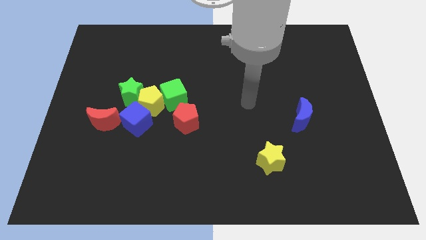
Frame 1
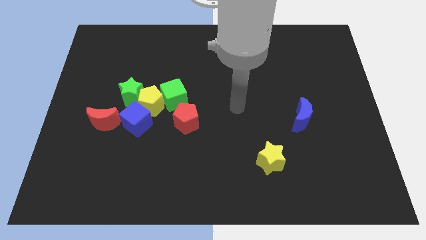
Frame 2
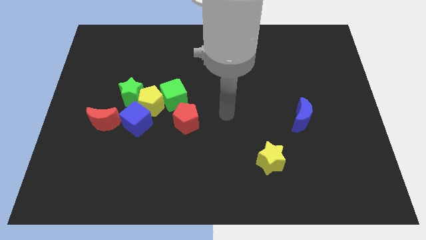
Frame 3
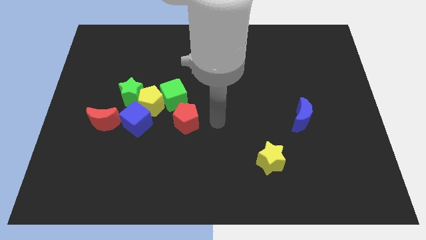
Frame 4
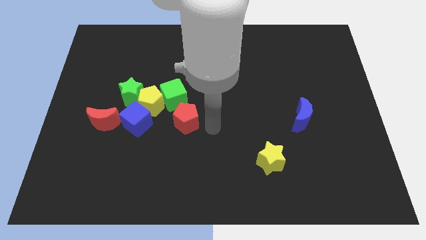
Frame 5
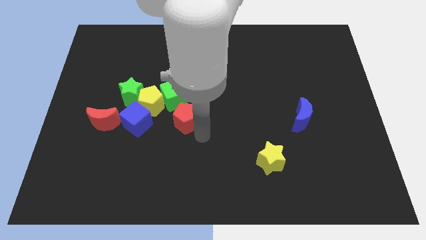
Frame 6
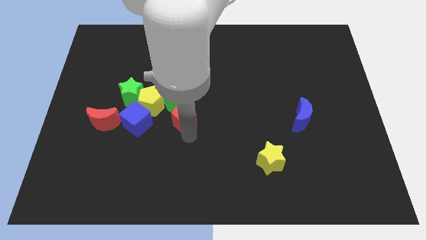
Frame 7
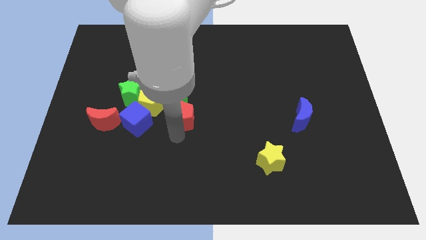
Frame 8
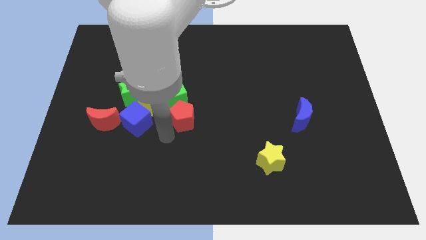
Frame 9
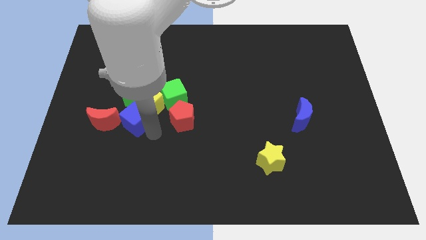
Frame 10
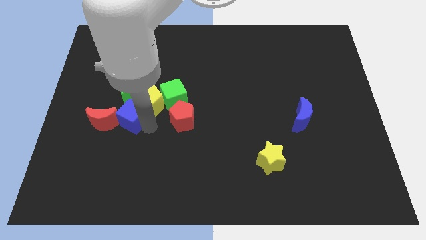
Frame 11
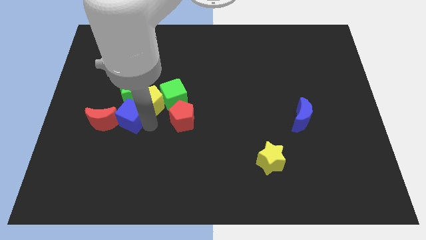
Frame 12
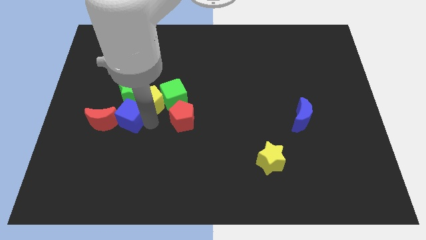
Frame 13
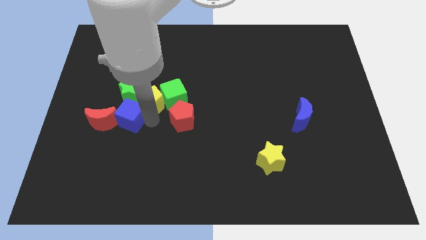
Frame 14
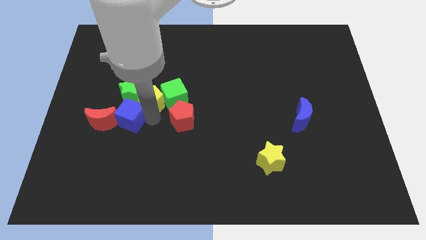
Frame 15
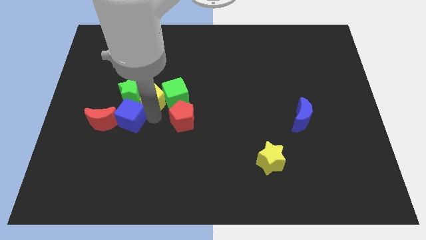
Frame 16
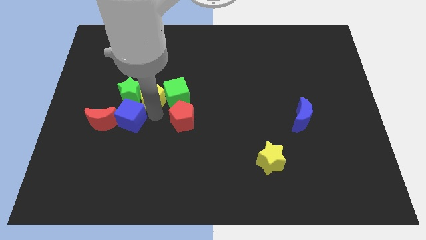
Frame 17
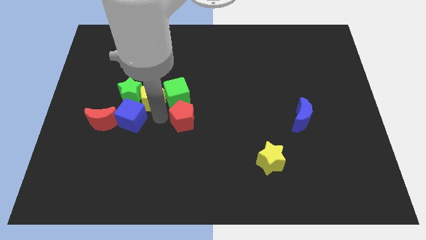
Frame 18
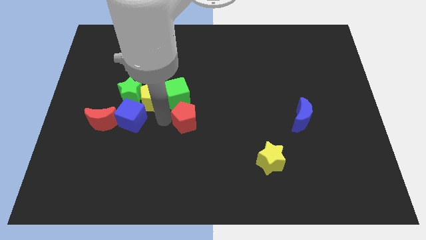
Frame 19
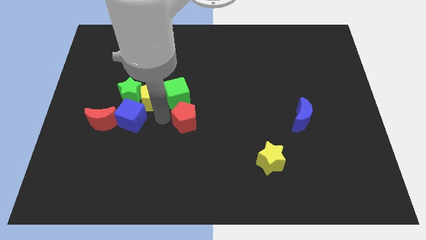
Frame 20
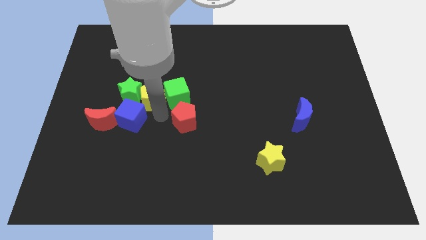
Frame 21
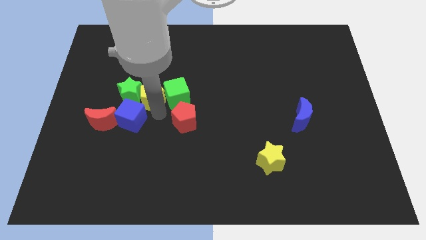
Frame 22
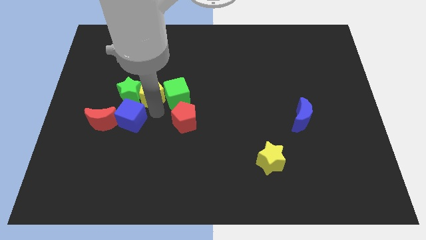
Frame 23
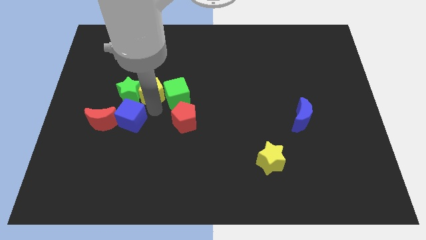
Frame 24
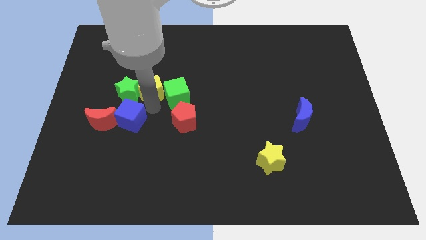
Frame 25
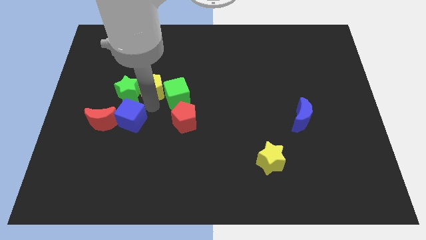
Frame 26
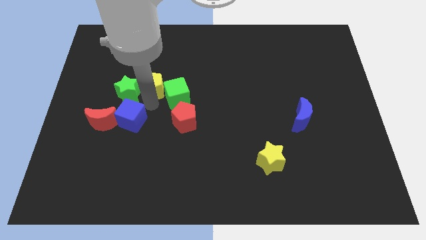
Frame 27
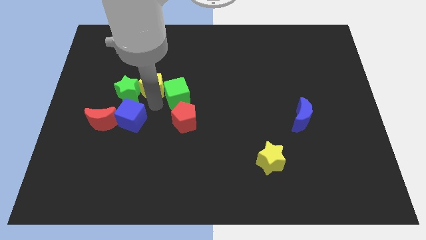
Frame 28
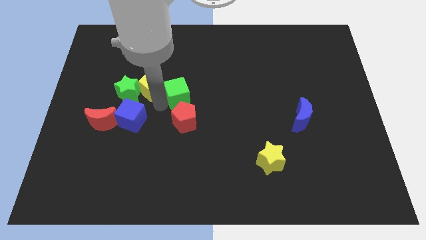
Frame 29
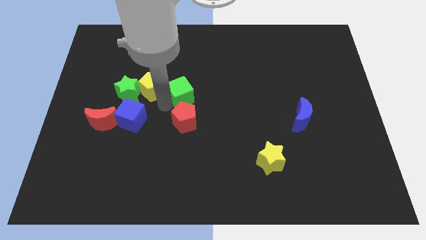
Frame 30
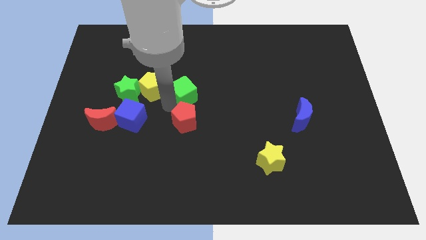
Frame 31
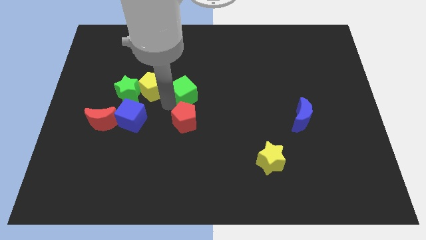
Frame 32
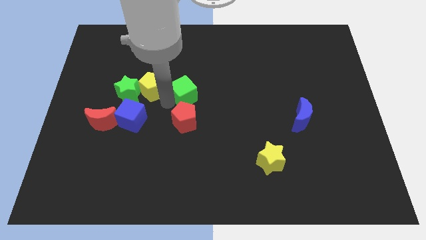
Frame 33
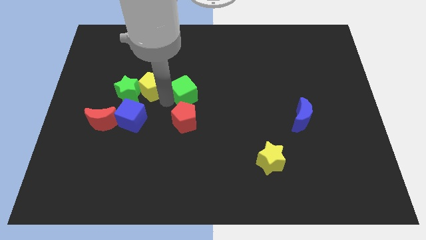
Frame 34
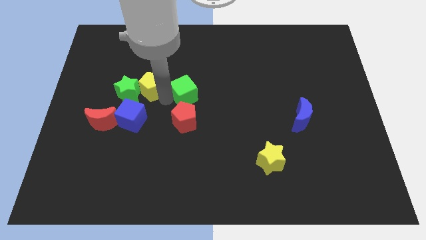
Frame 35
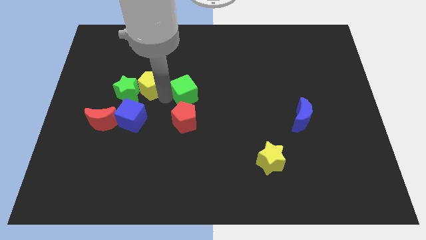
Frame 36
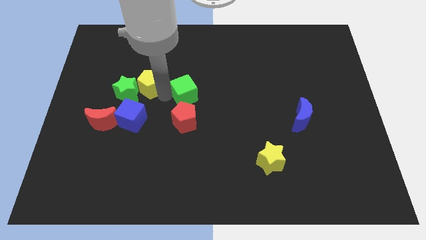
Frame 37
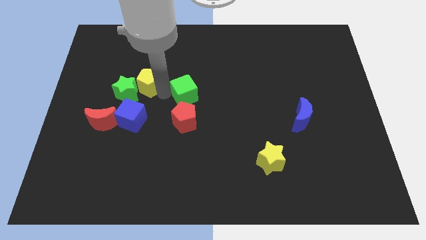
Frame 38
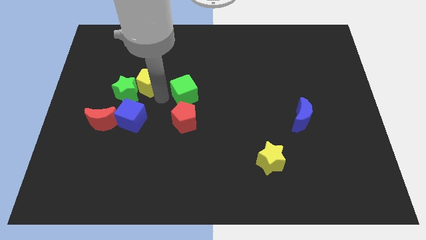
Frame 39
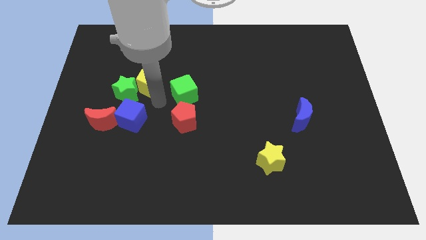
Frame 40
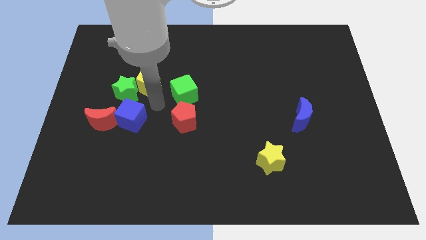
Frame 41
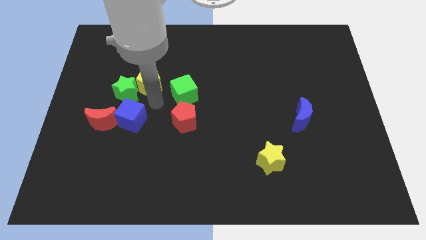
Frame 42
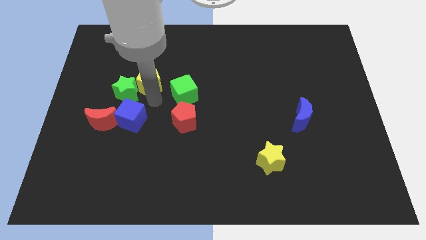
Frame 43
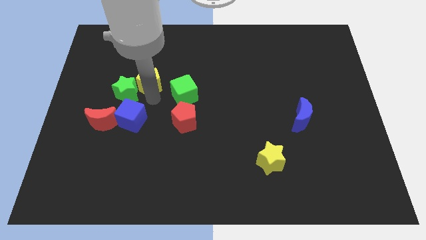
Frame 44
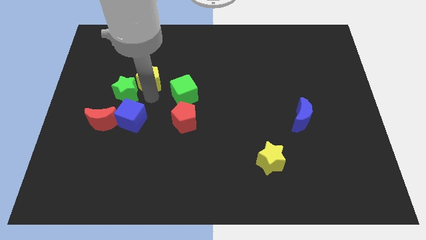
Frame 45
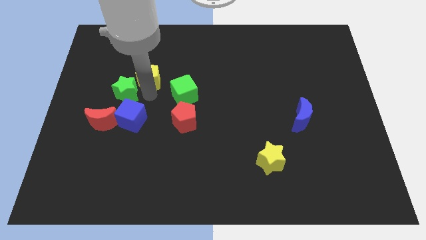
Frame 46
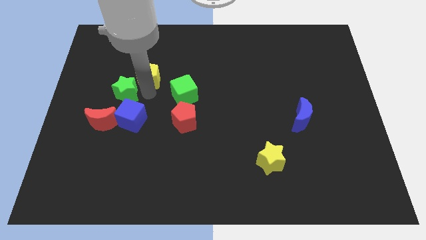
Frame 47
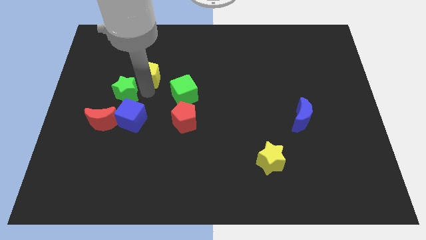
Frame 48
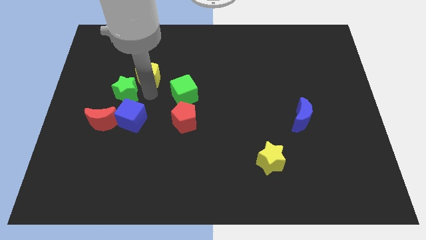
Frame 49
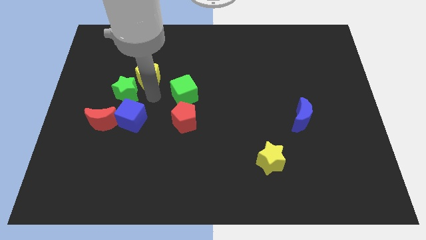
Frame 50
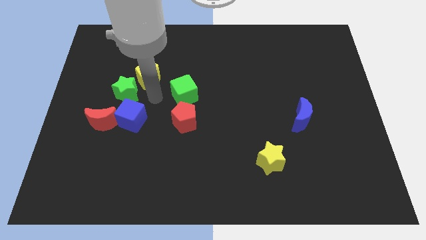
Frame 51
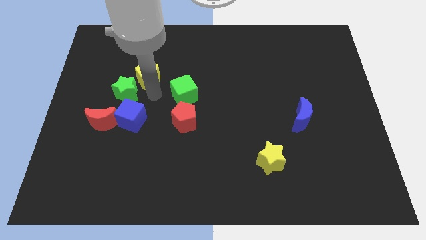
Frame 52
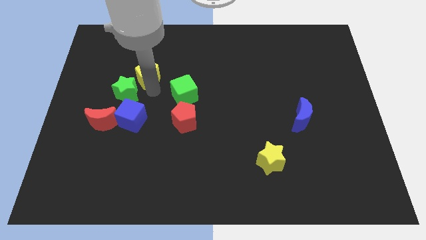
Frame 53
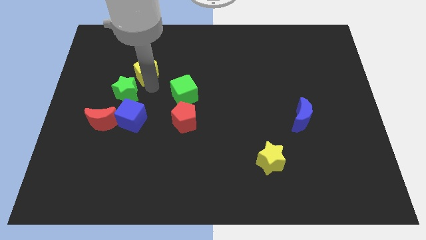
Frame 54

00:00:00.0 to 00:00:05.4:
move the yellow pentagon away from the group of blocks

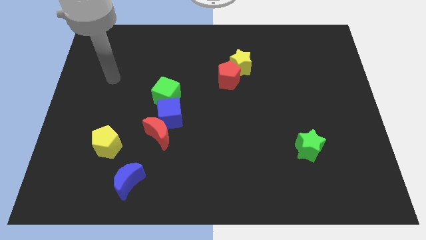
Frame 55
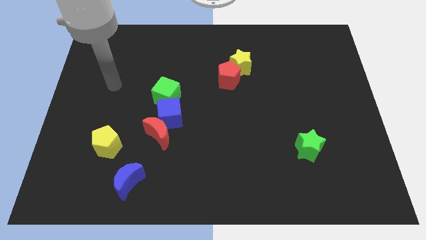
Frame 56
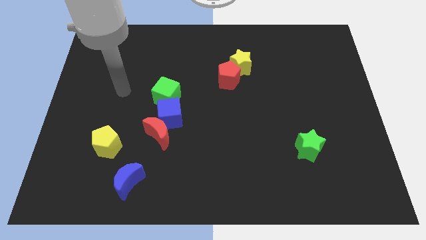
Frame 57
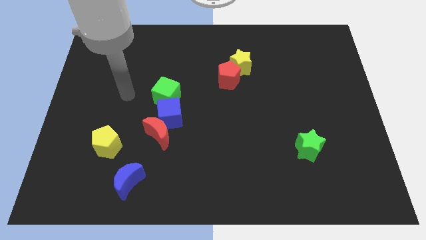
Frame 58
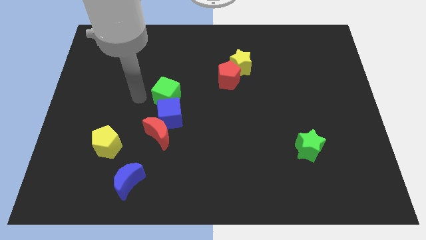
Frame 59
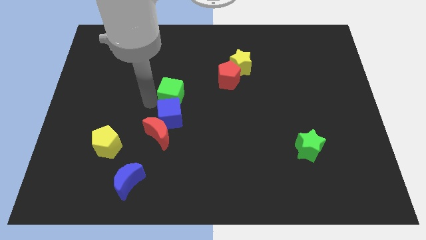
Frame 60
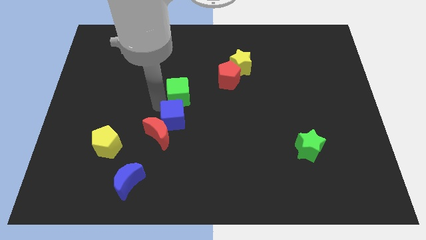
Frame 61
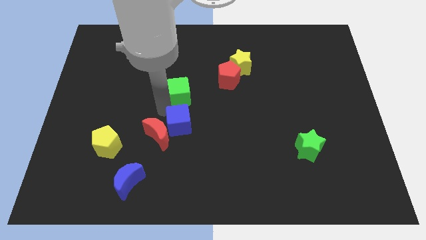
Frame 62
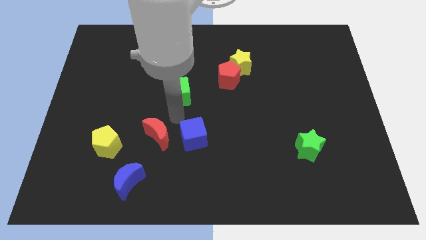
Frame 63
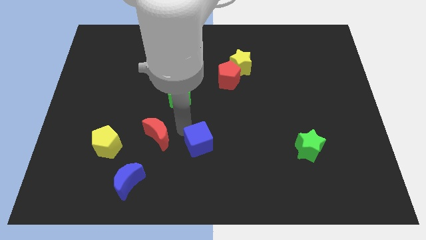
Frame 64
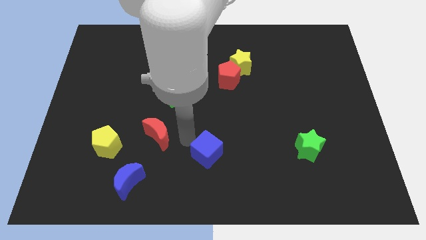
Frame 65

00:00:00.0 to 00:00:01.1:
pull the red moon apart from the blue cube

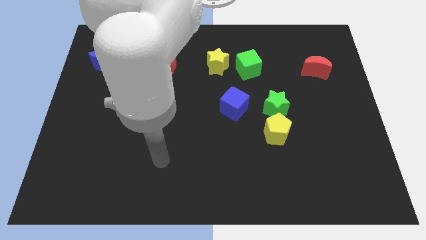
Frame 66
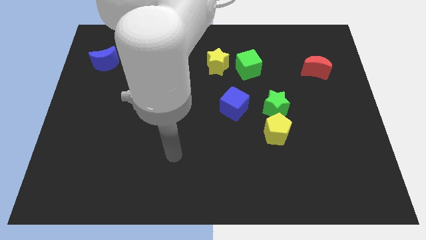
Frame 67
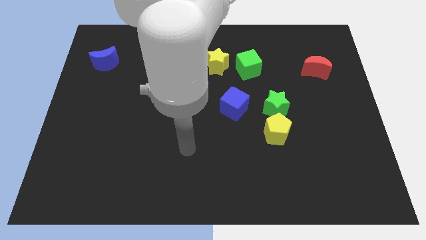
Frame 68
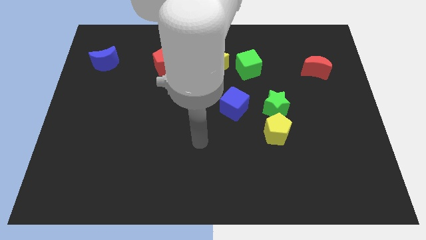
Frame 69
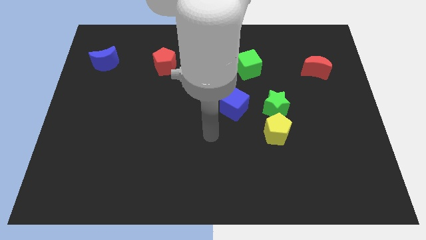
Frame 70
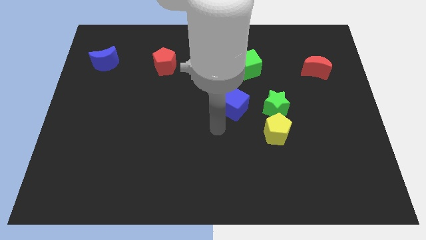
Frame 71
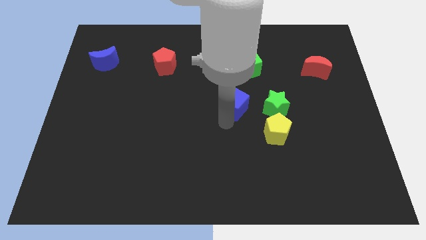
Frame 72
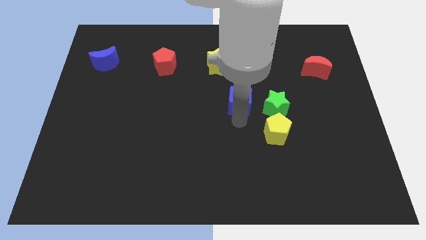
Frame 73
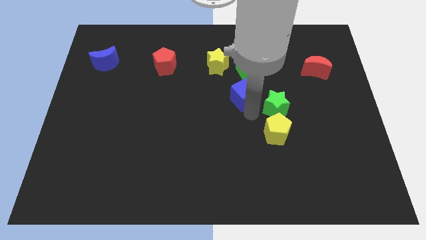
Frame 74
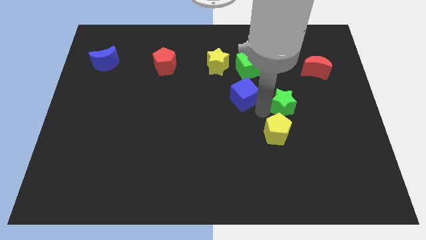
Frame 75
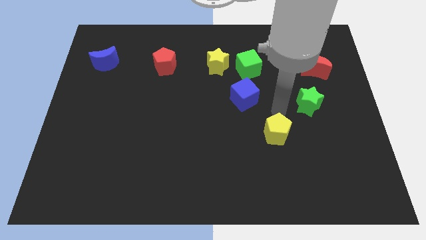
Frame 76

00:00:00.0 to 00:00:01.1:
separate the yellow pentagon from the green star

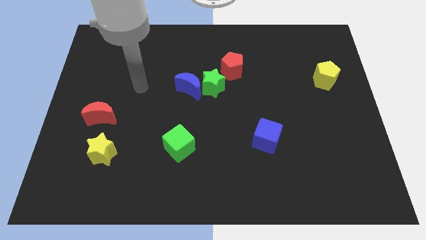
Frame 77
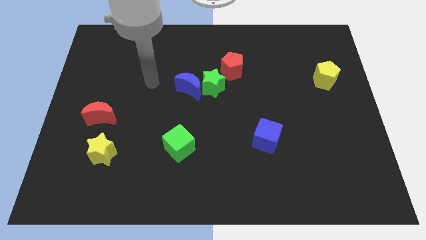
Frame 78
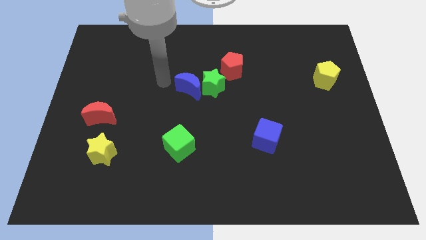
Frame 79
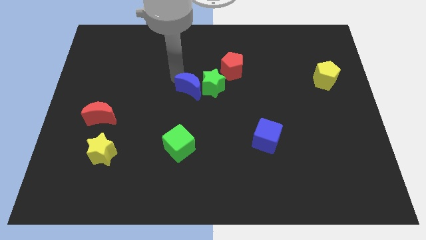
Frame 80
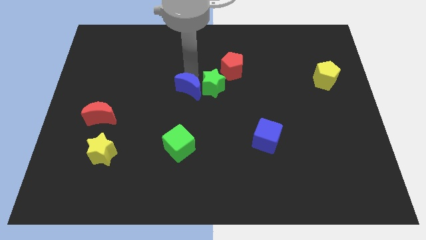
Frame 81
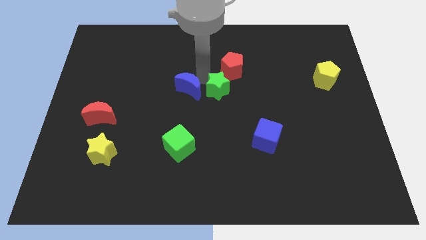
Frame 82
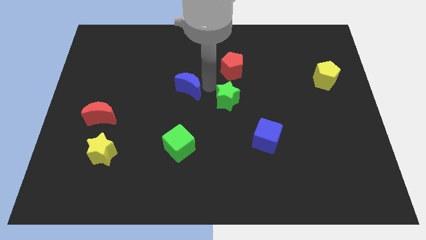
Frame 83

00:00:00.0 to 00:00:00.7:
pull the blue moon apart from the green star

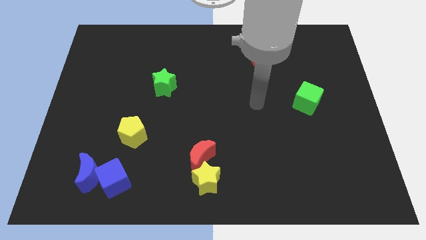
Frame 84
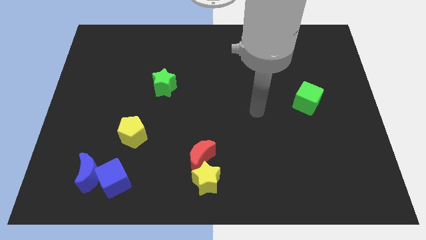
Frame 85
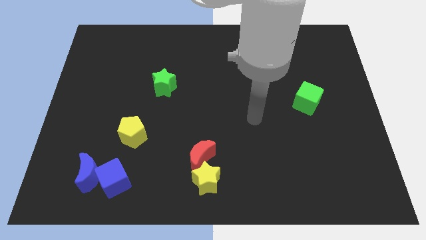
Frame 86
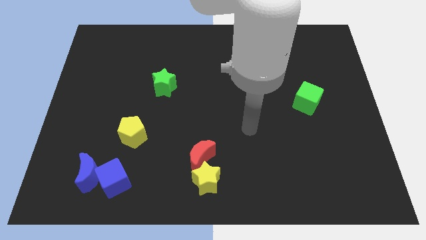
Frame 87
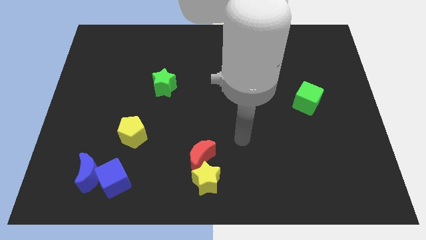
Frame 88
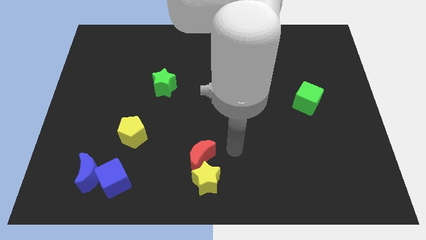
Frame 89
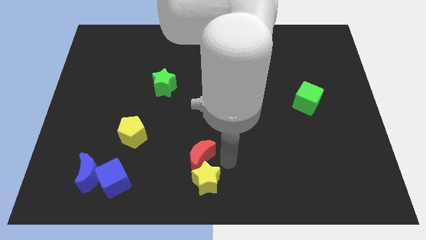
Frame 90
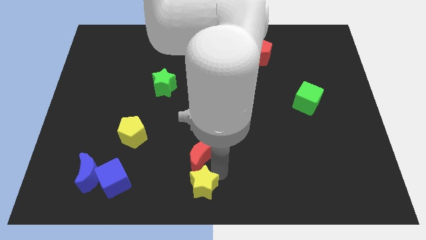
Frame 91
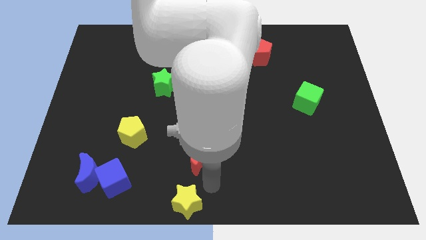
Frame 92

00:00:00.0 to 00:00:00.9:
pull the red moon apart from the yellow star
